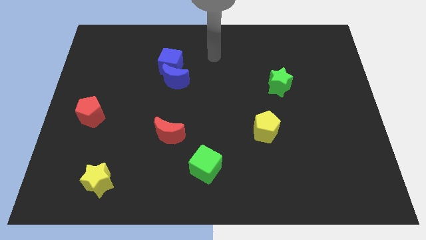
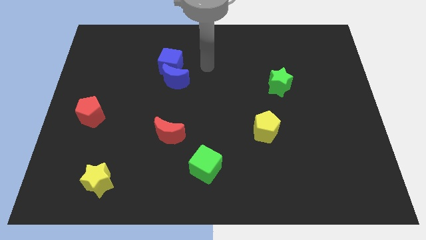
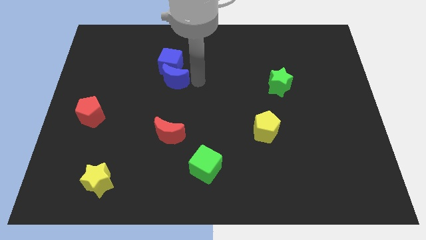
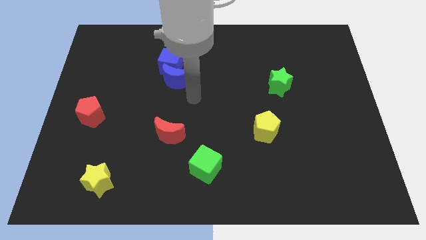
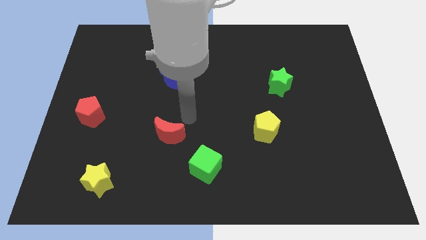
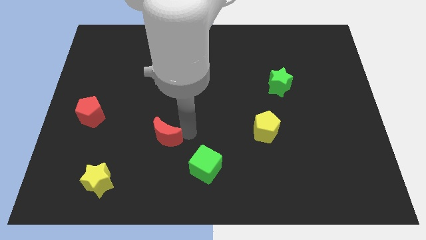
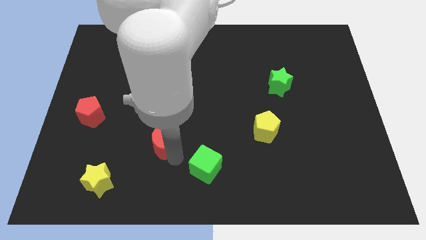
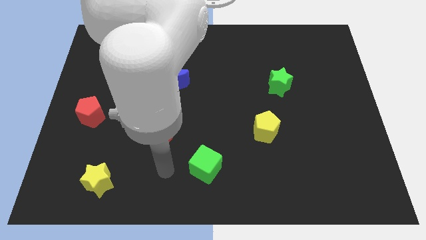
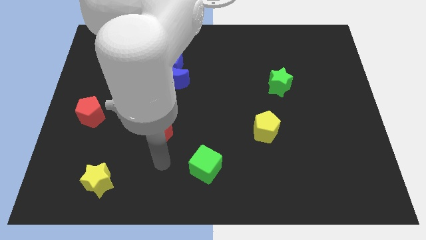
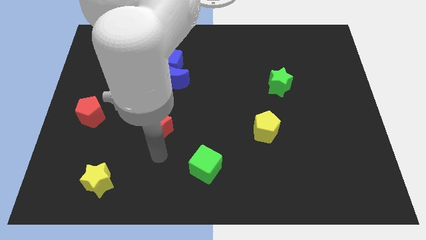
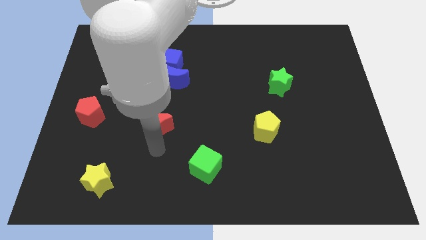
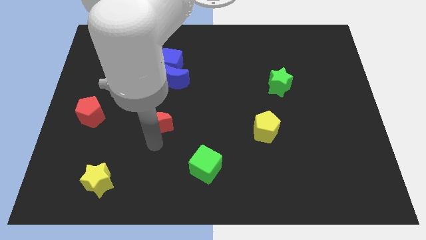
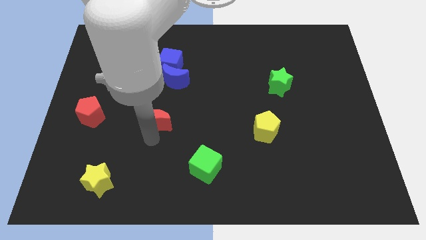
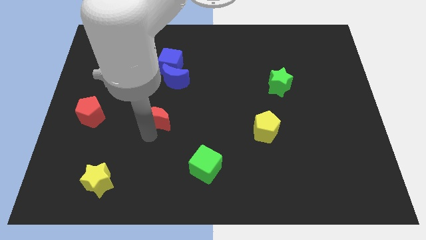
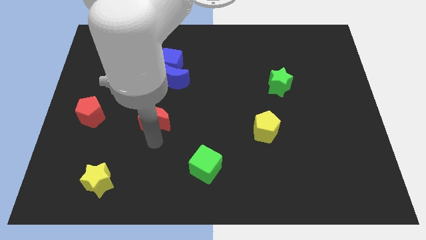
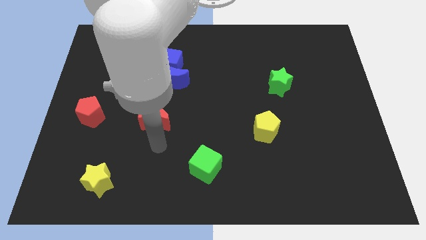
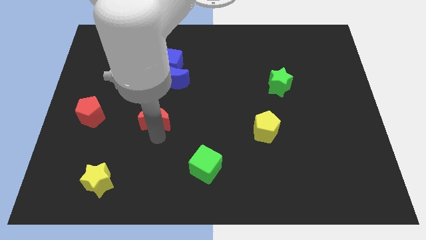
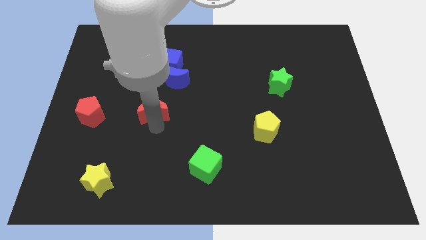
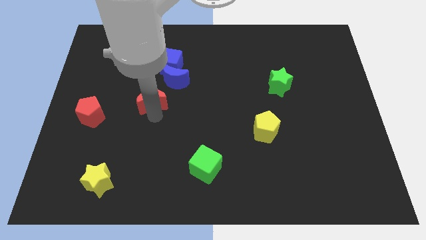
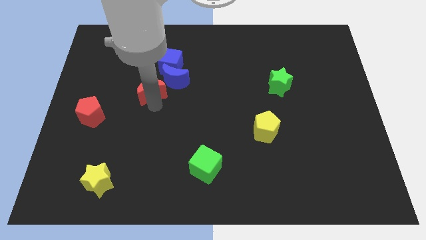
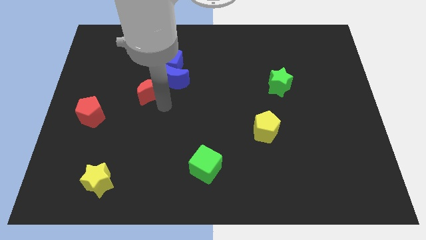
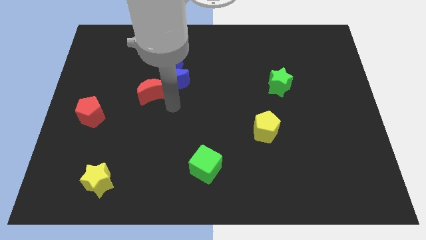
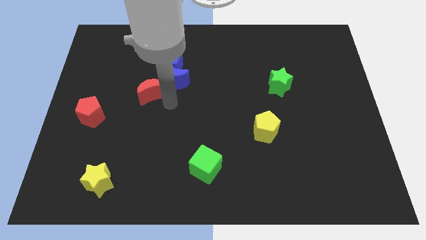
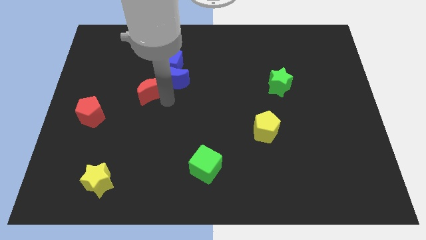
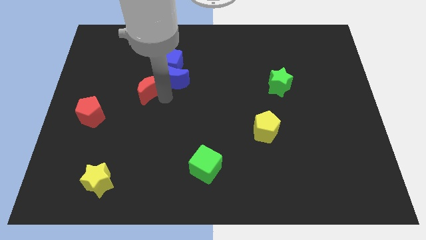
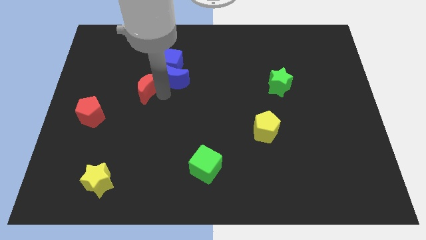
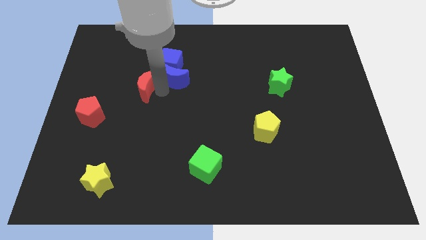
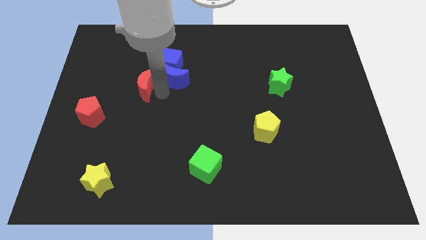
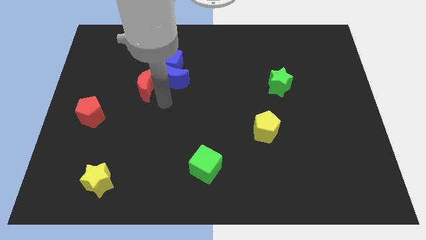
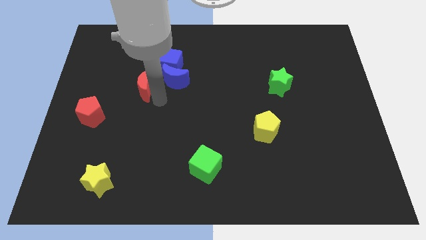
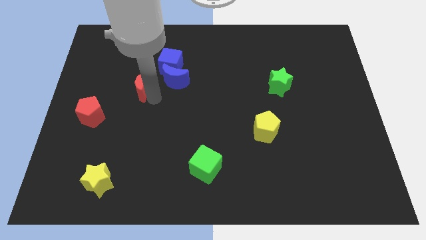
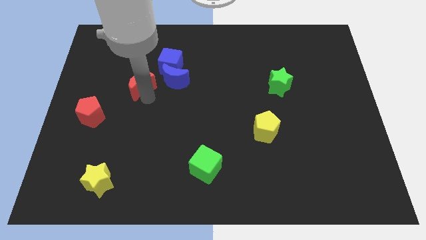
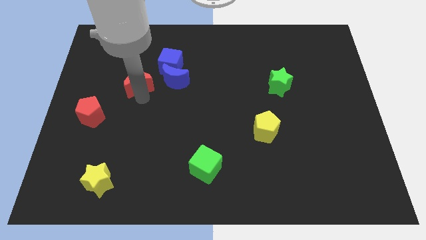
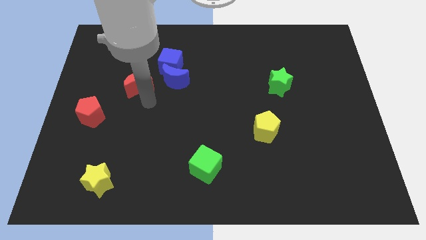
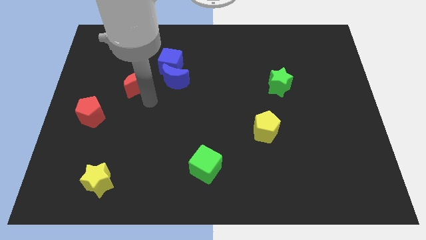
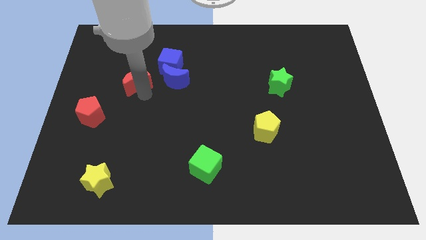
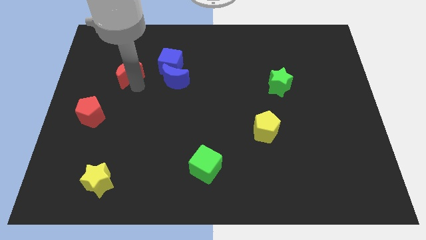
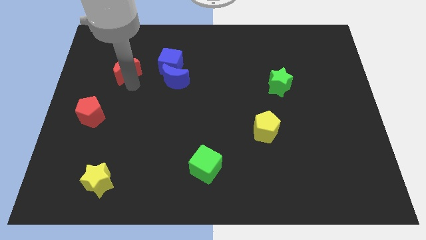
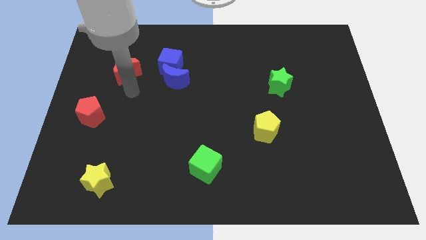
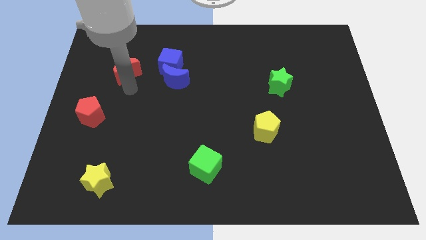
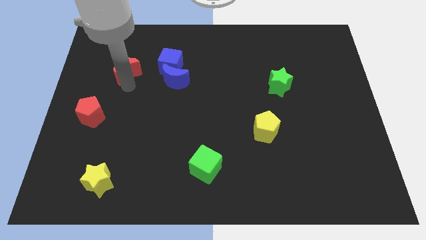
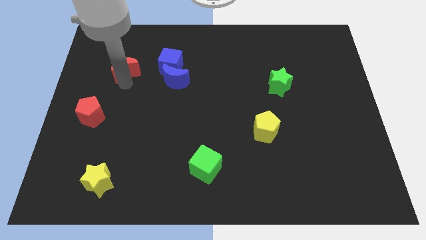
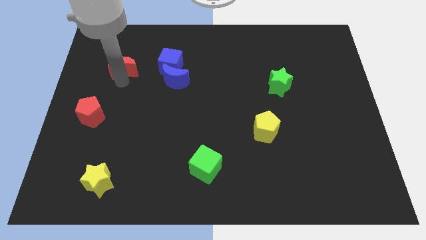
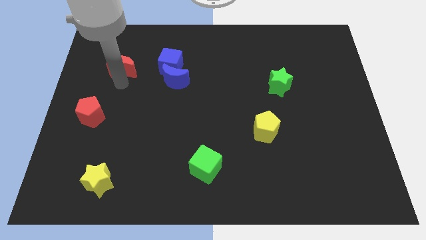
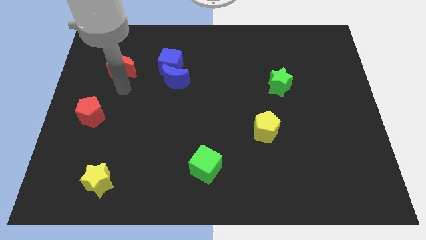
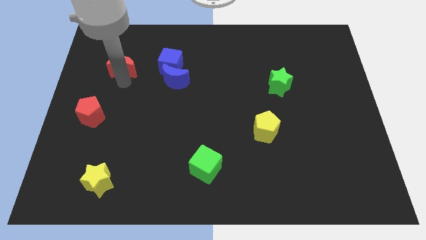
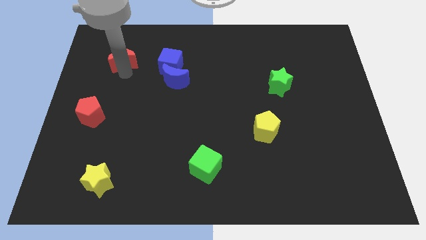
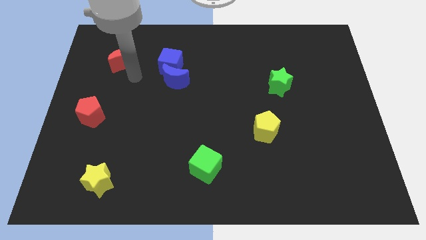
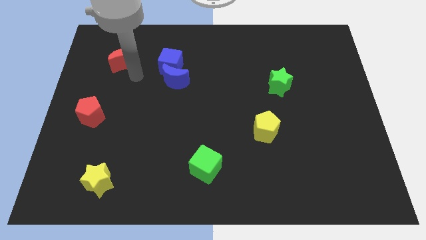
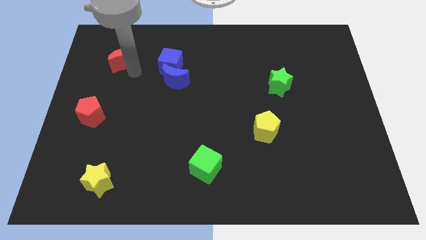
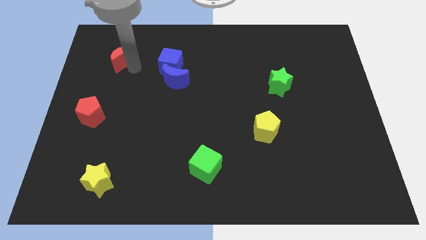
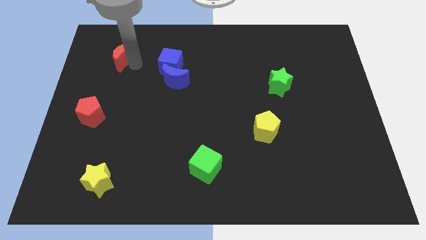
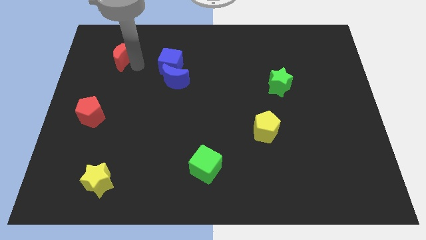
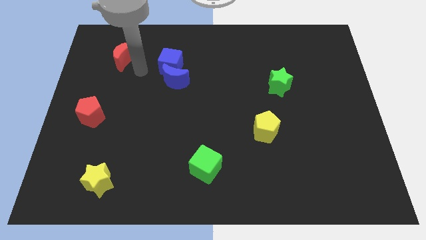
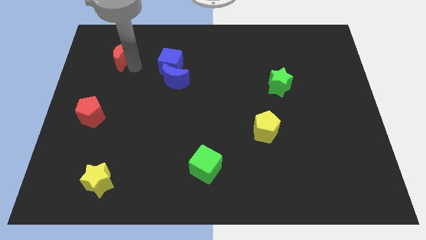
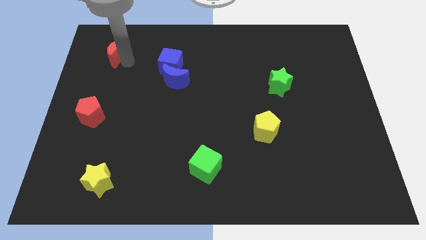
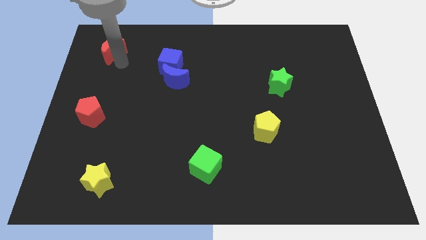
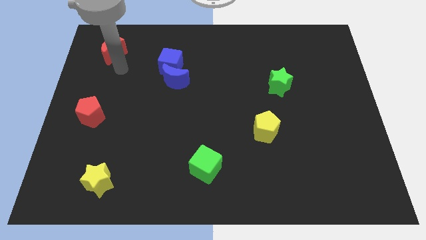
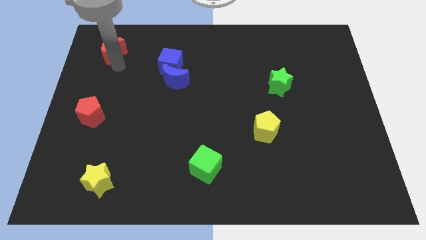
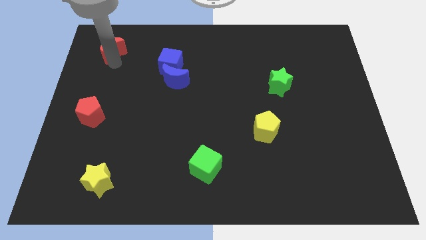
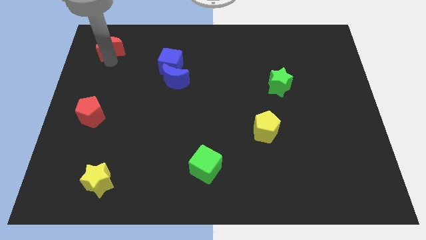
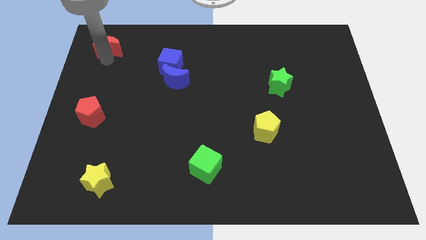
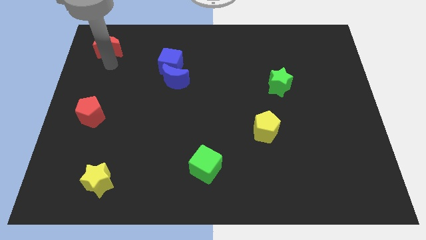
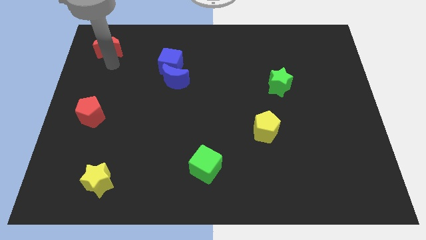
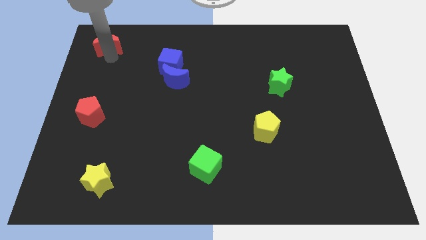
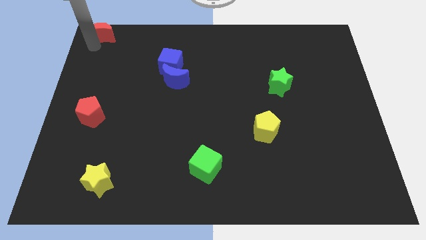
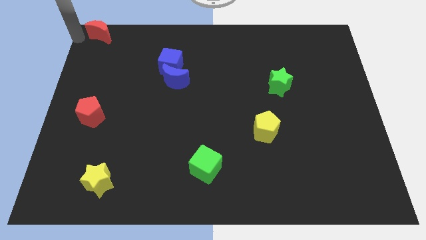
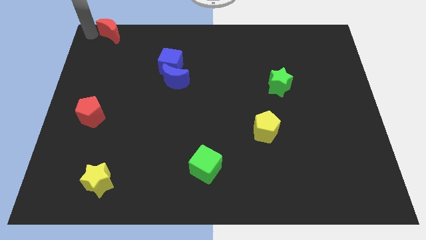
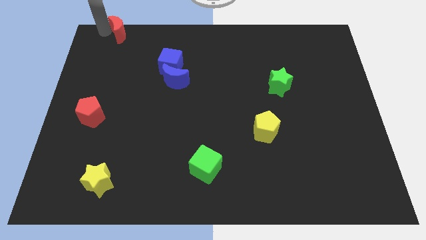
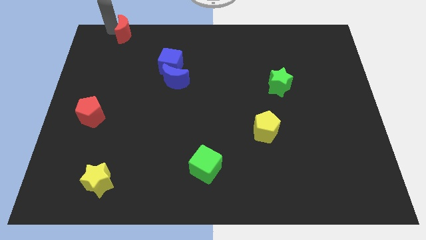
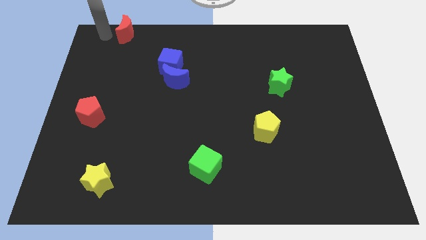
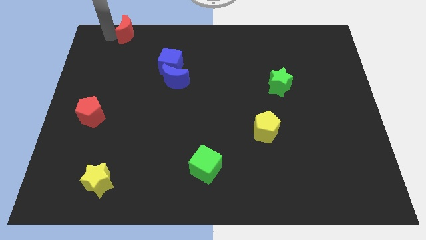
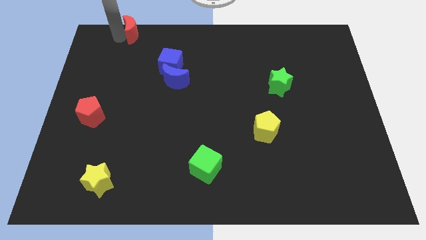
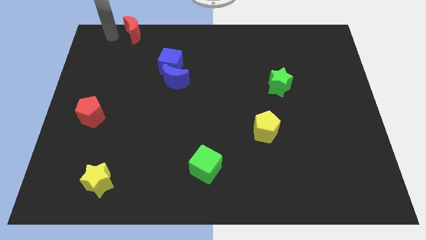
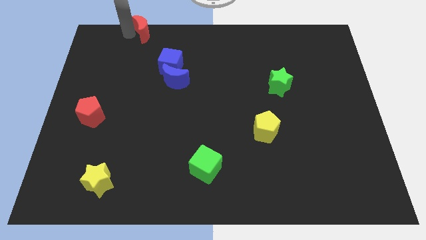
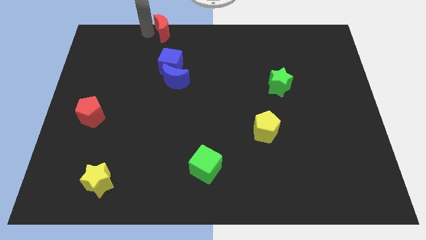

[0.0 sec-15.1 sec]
put the red moon to the towards your base
